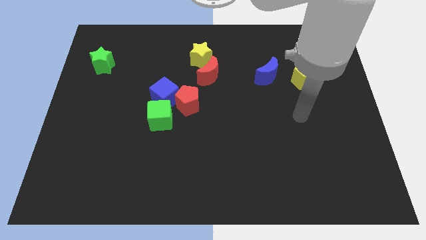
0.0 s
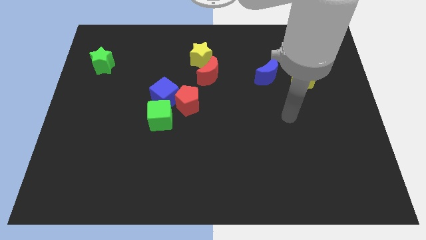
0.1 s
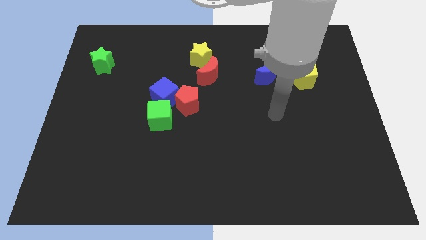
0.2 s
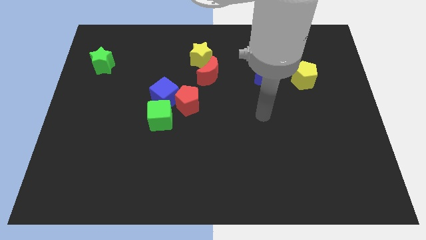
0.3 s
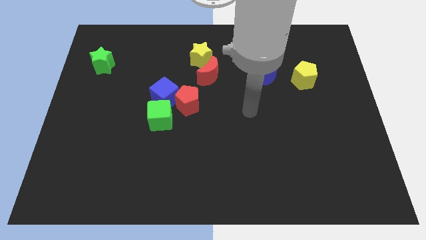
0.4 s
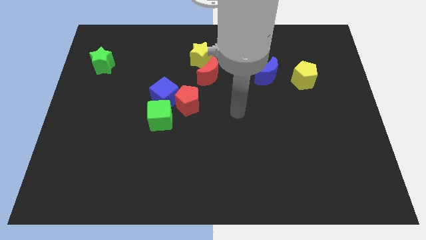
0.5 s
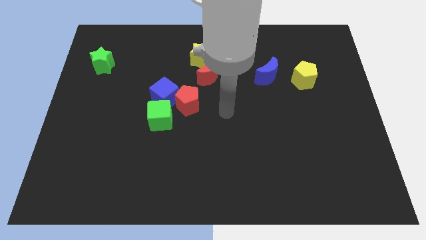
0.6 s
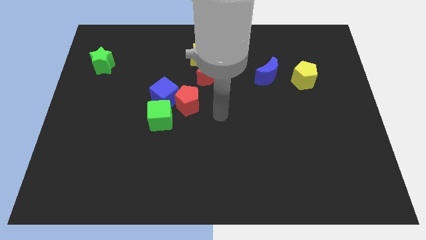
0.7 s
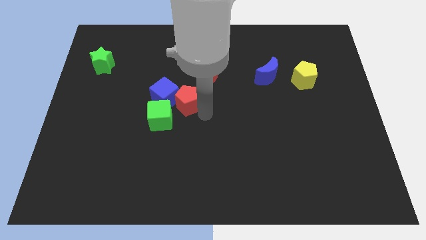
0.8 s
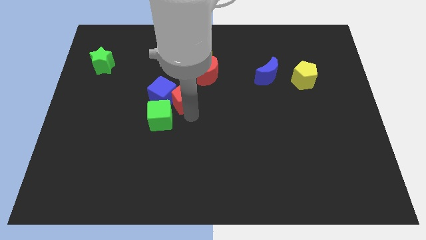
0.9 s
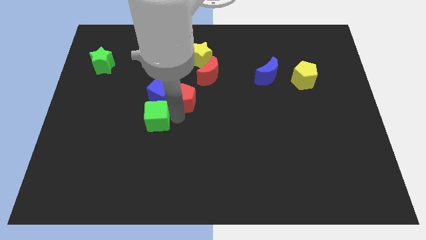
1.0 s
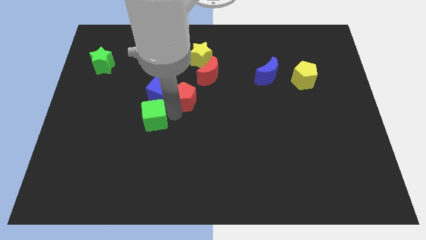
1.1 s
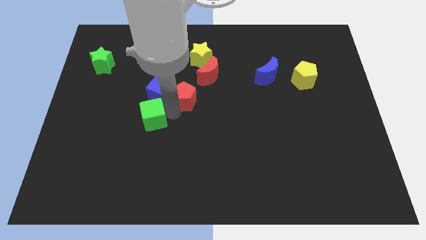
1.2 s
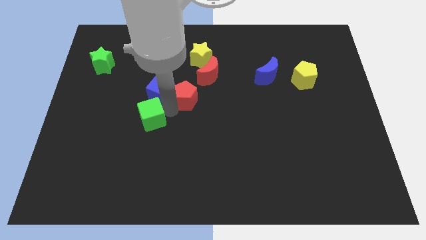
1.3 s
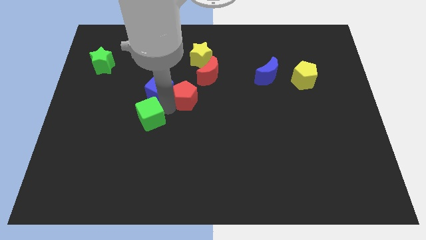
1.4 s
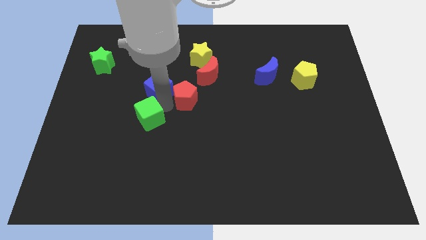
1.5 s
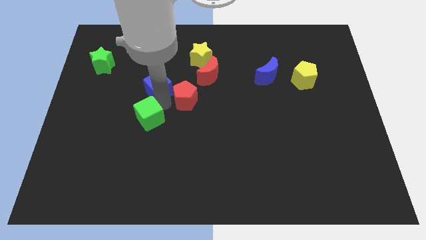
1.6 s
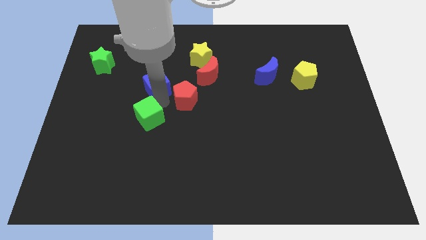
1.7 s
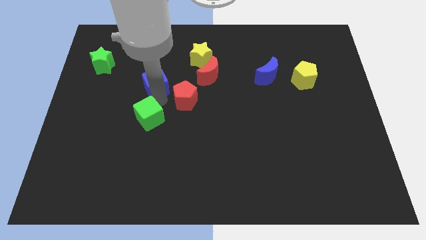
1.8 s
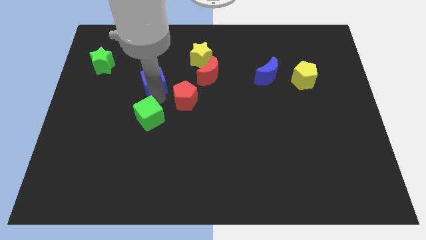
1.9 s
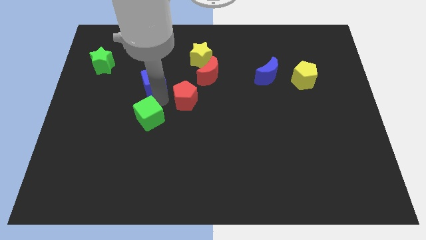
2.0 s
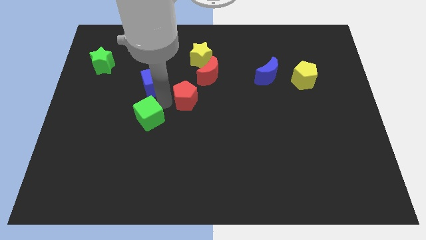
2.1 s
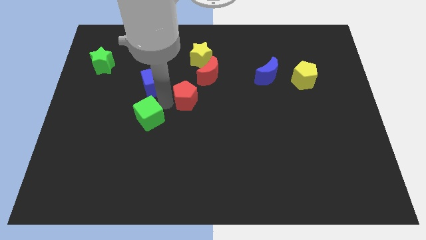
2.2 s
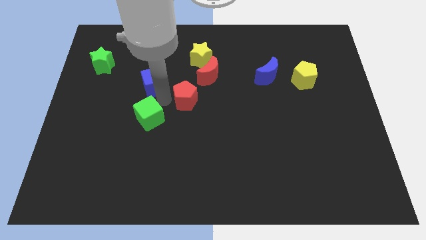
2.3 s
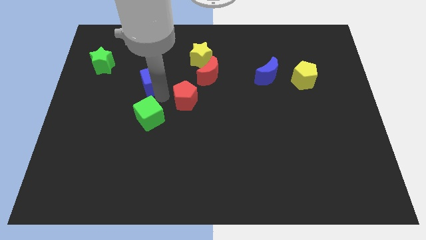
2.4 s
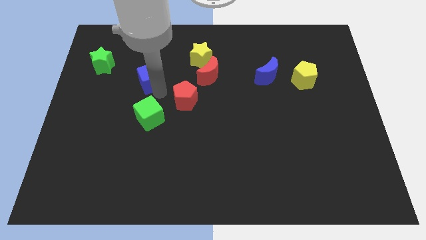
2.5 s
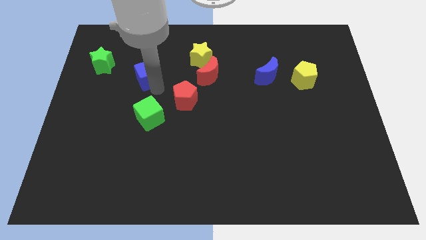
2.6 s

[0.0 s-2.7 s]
pull the blue cube apart from the red pentagon and green cube

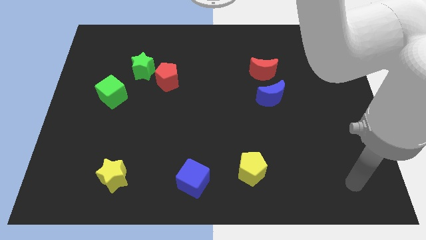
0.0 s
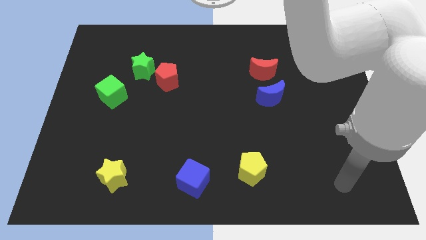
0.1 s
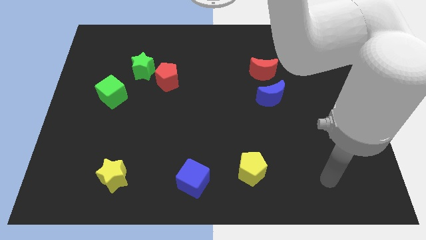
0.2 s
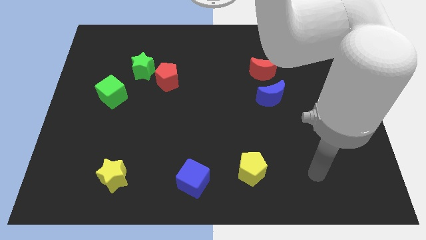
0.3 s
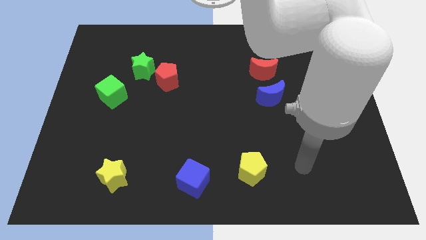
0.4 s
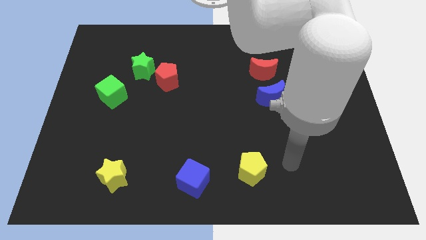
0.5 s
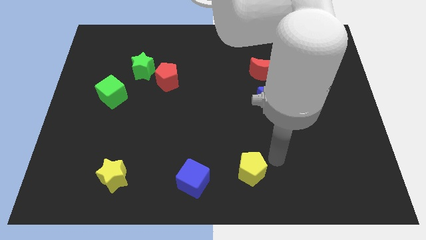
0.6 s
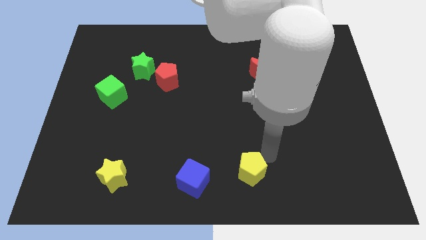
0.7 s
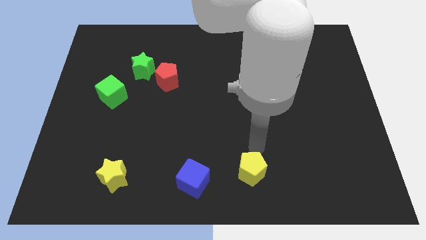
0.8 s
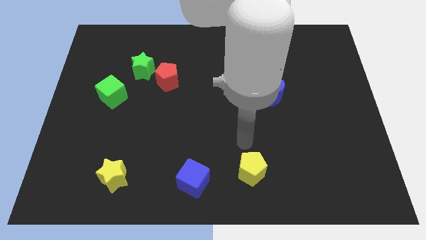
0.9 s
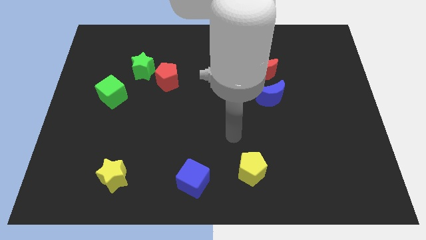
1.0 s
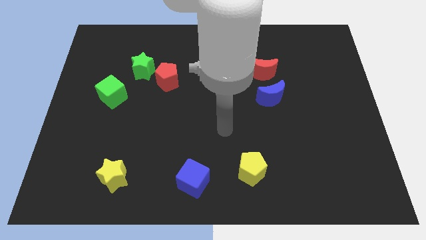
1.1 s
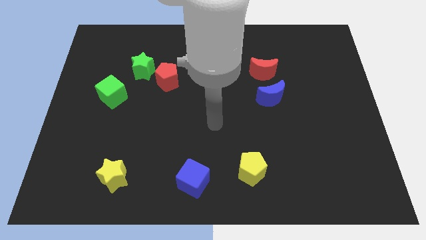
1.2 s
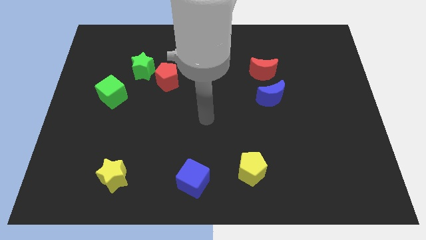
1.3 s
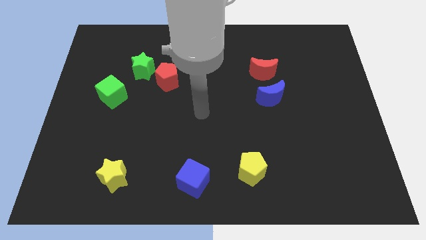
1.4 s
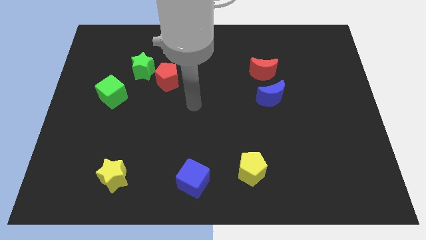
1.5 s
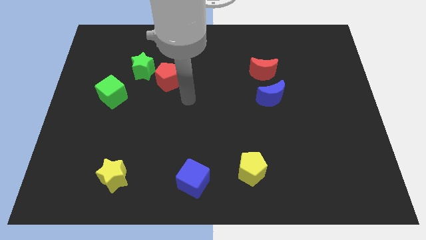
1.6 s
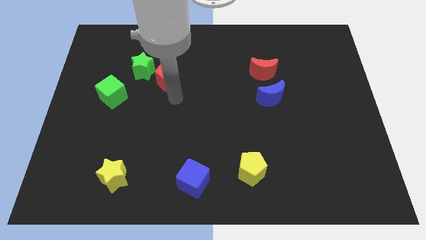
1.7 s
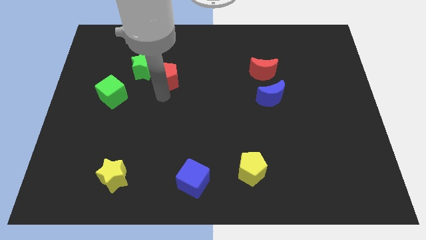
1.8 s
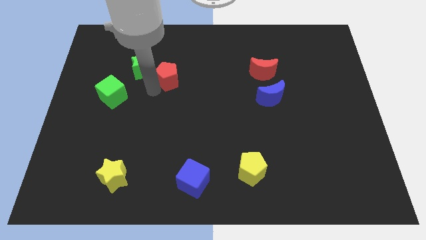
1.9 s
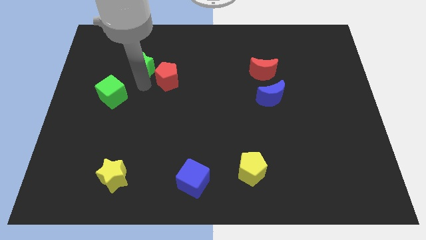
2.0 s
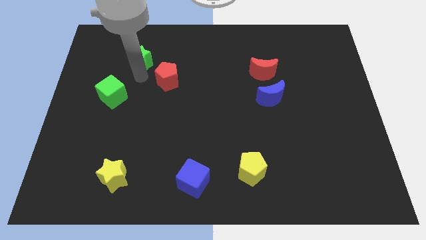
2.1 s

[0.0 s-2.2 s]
pull the red pentagon apart from the green star

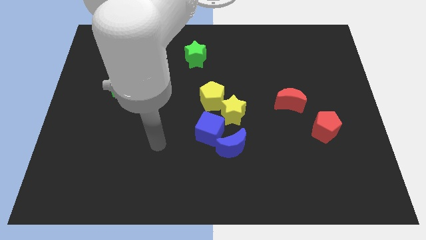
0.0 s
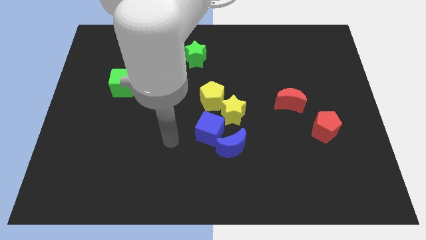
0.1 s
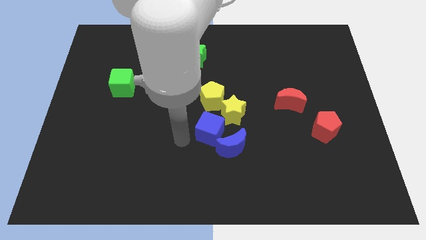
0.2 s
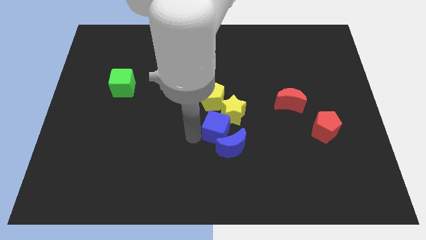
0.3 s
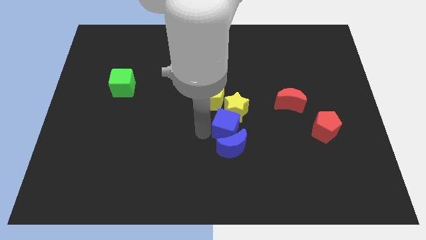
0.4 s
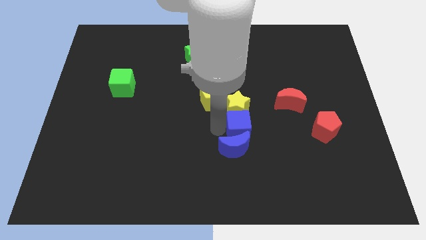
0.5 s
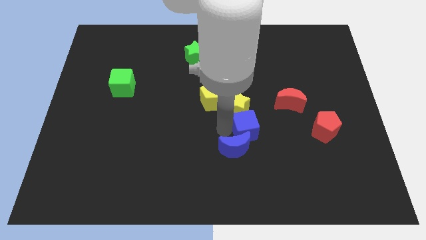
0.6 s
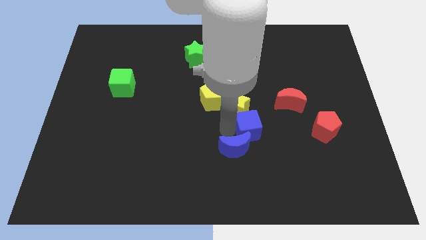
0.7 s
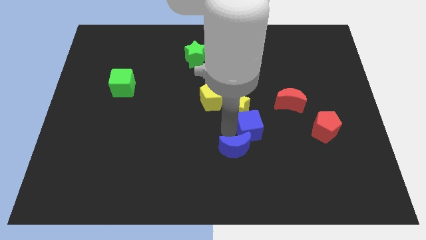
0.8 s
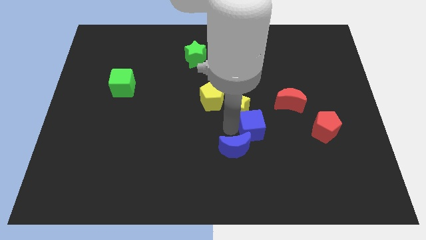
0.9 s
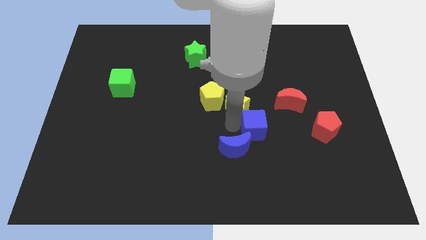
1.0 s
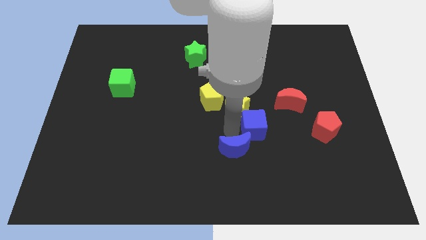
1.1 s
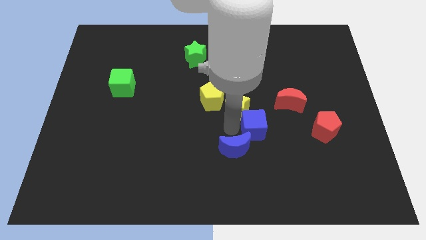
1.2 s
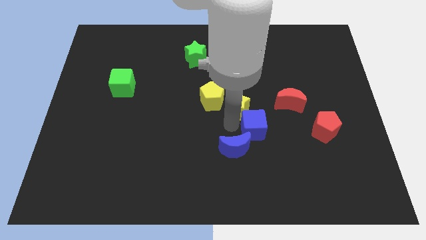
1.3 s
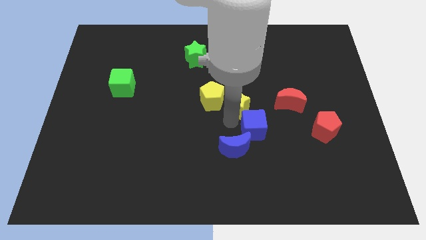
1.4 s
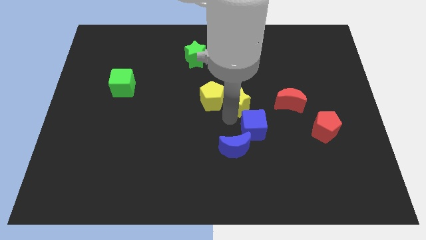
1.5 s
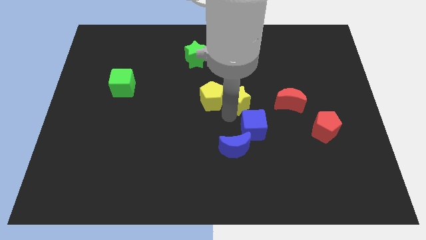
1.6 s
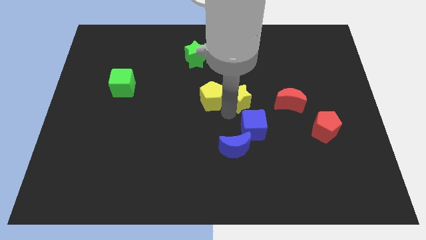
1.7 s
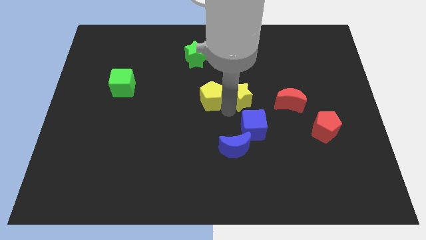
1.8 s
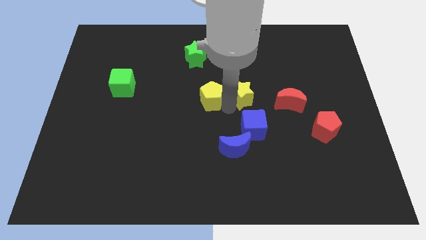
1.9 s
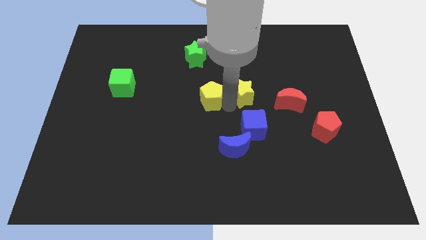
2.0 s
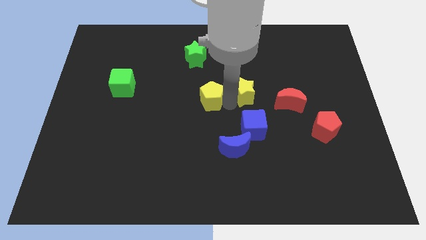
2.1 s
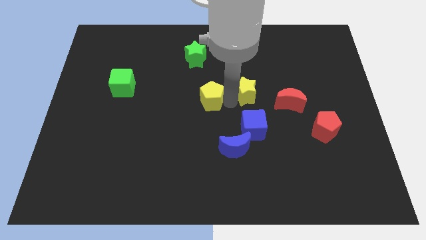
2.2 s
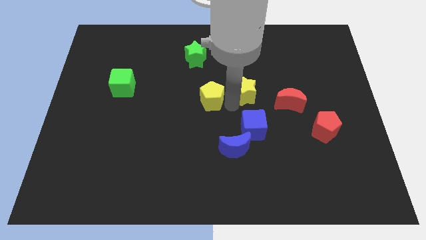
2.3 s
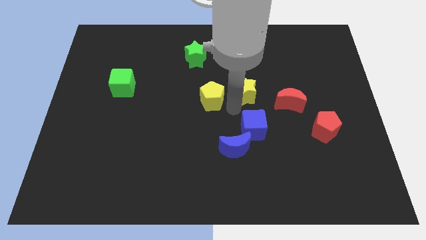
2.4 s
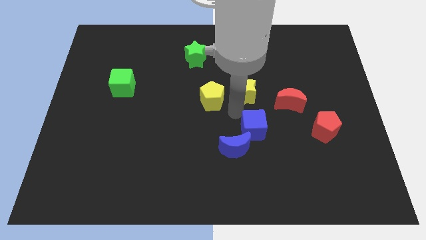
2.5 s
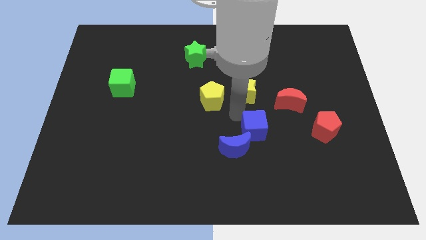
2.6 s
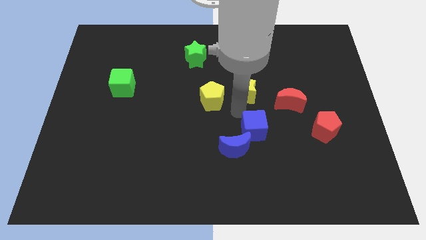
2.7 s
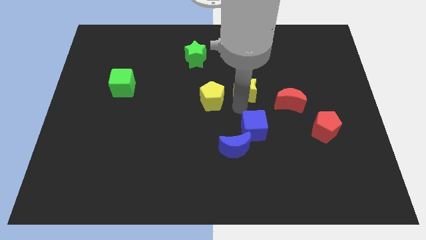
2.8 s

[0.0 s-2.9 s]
move the yellow star away from the group of blocks

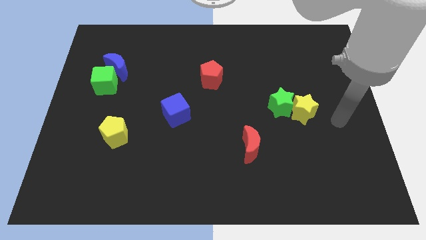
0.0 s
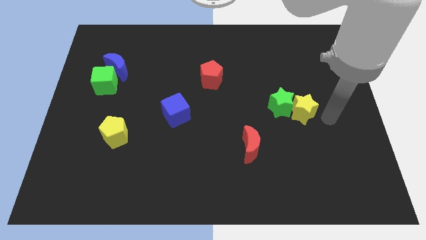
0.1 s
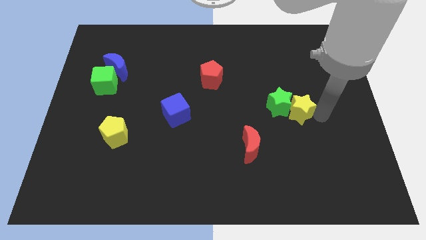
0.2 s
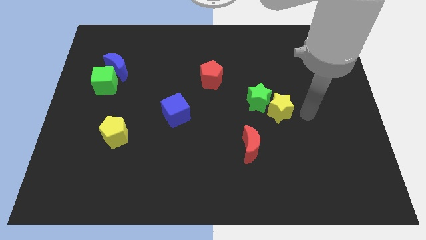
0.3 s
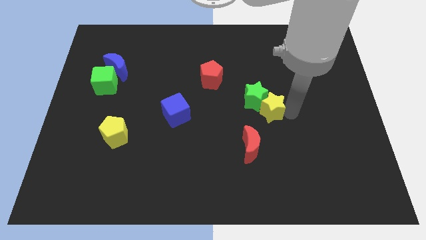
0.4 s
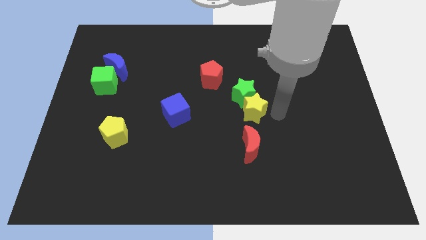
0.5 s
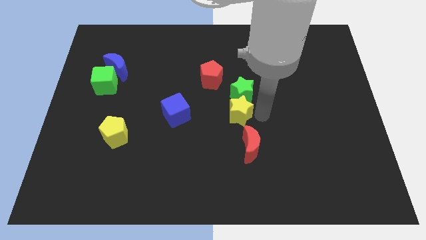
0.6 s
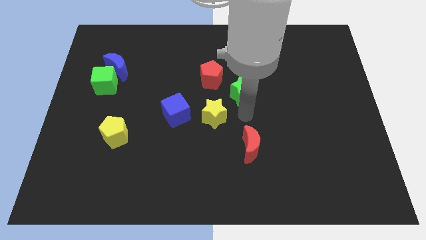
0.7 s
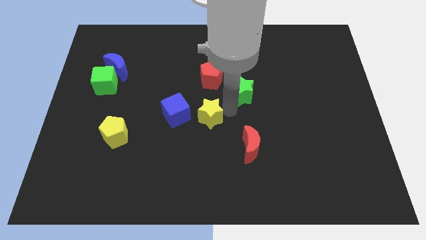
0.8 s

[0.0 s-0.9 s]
pull the green star apart from the yellow star

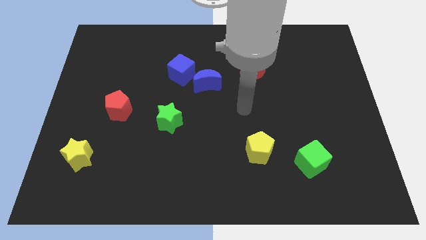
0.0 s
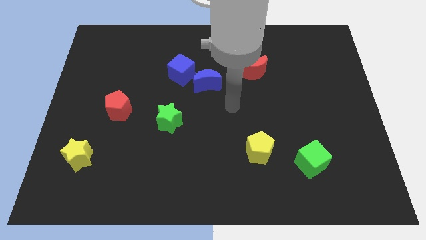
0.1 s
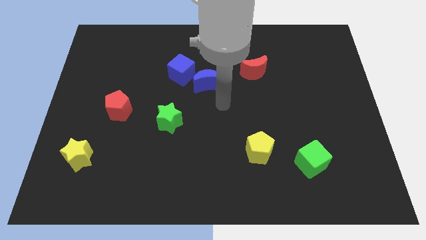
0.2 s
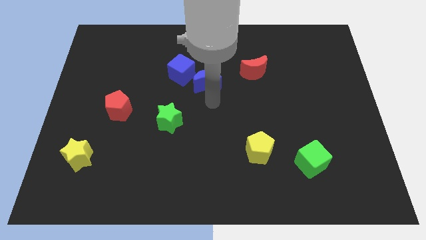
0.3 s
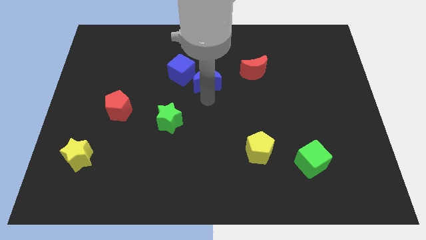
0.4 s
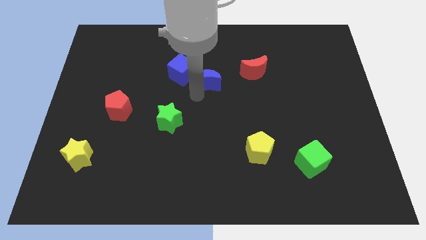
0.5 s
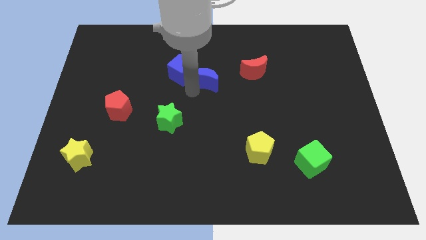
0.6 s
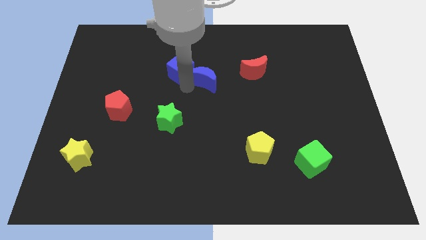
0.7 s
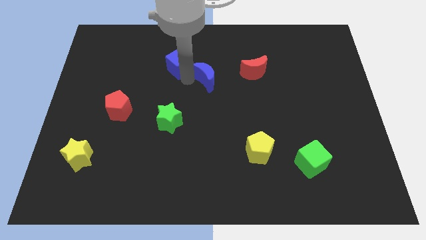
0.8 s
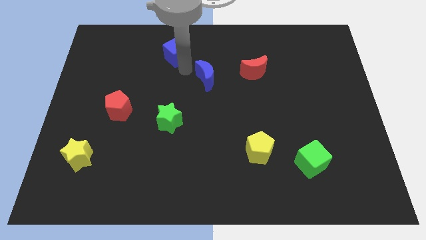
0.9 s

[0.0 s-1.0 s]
separate the blue moon from the blue cube
